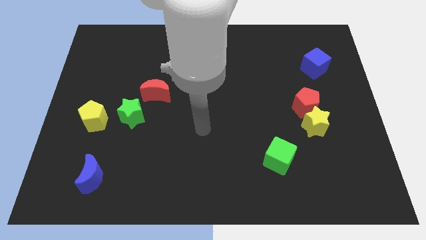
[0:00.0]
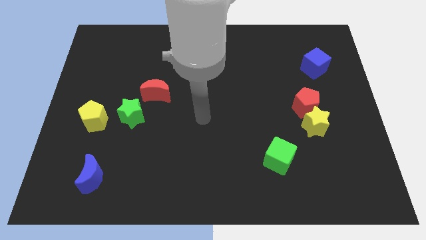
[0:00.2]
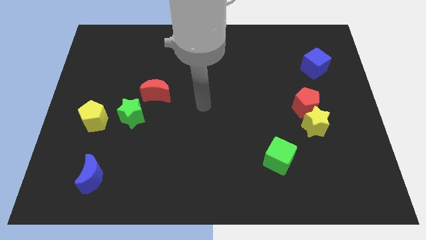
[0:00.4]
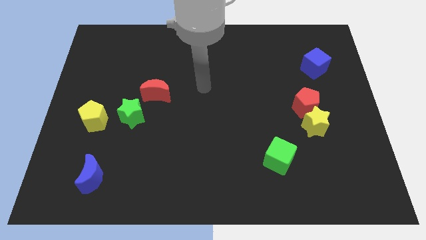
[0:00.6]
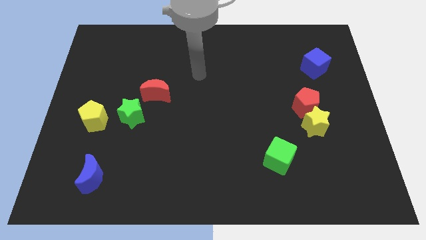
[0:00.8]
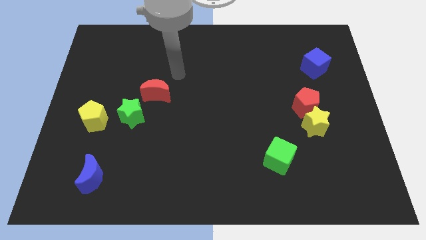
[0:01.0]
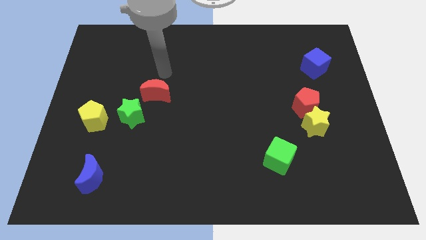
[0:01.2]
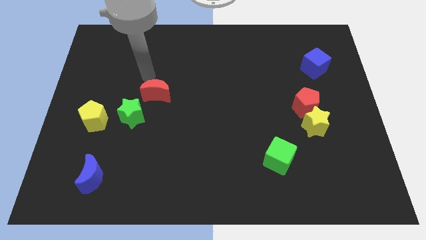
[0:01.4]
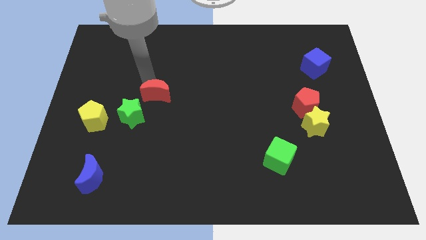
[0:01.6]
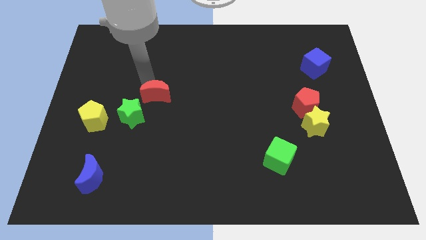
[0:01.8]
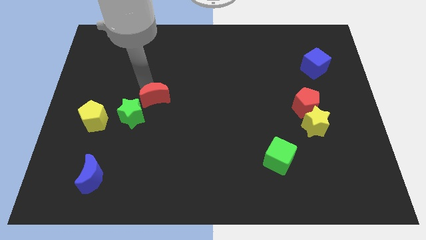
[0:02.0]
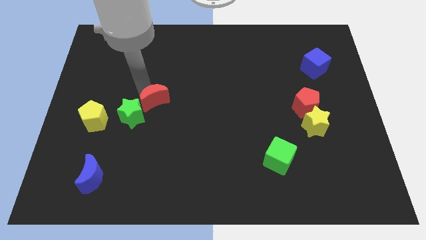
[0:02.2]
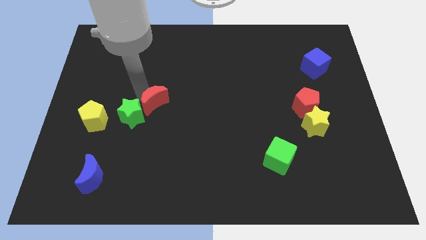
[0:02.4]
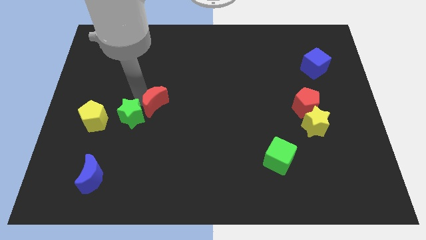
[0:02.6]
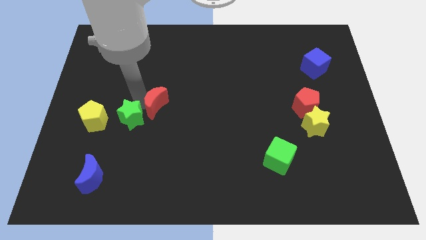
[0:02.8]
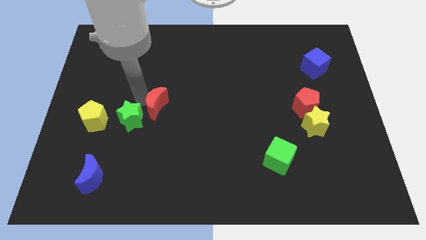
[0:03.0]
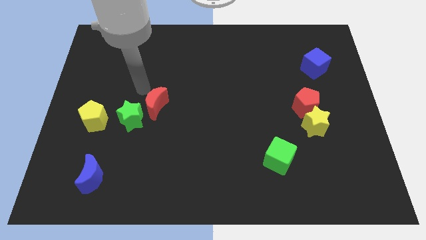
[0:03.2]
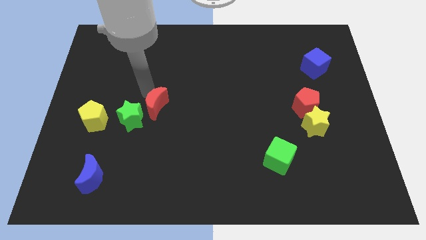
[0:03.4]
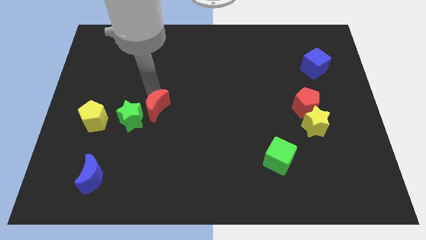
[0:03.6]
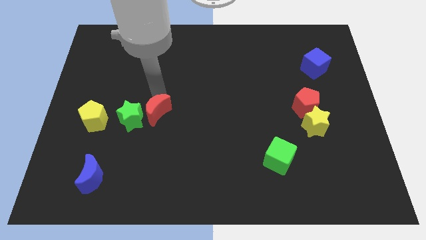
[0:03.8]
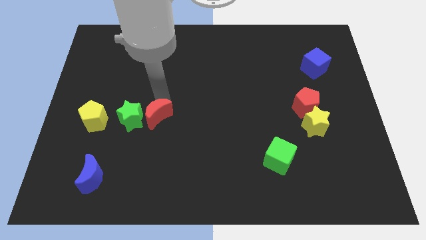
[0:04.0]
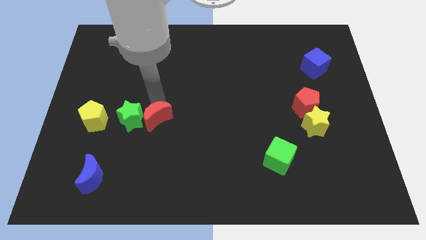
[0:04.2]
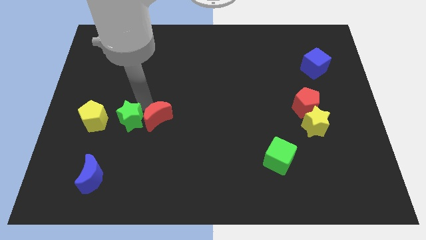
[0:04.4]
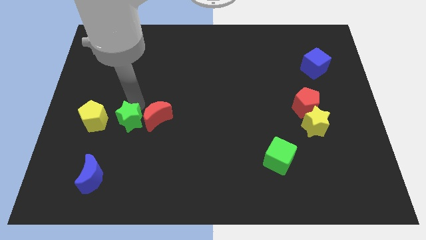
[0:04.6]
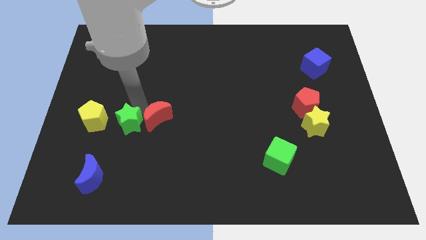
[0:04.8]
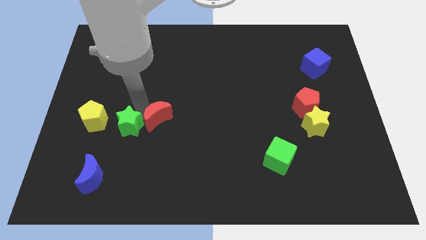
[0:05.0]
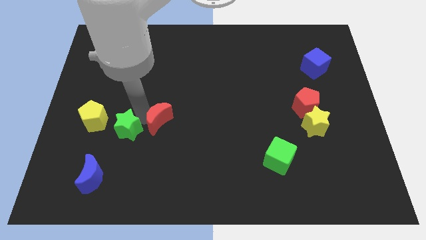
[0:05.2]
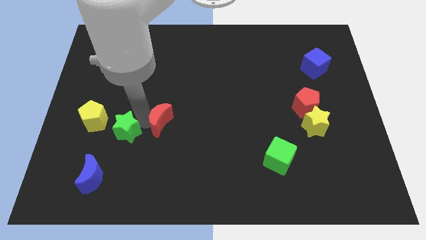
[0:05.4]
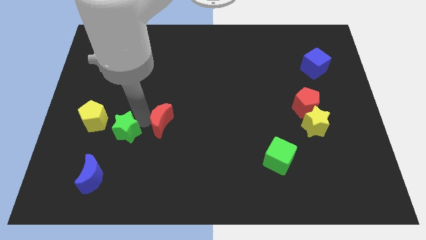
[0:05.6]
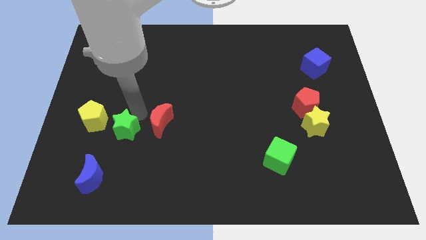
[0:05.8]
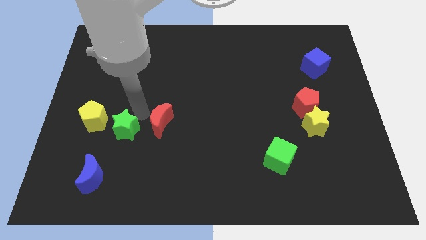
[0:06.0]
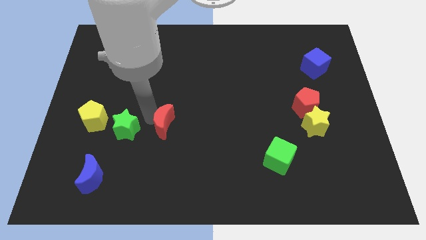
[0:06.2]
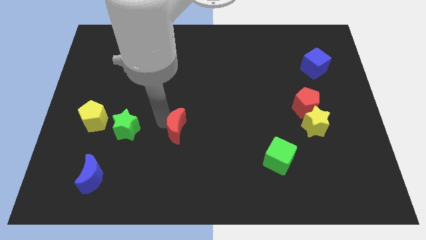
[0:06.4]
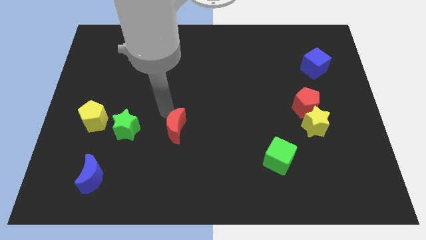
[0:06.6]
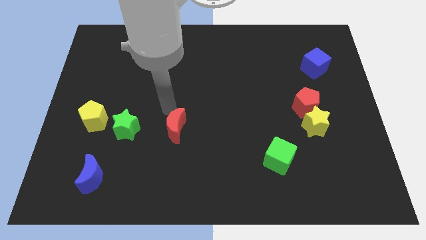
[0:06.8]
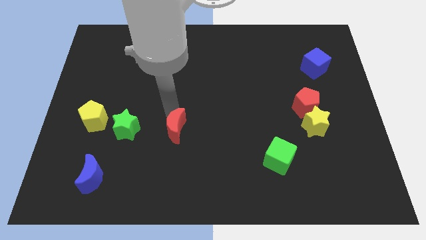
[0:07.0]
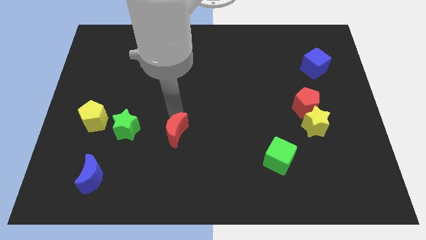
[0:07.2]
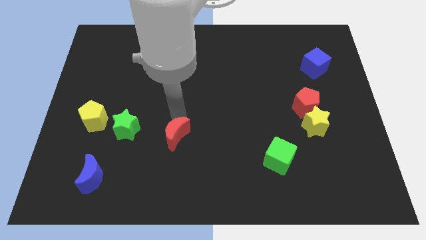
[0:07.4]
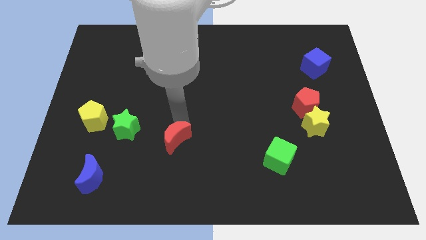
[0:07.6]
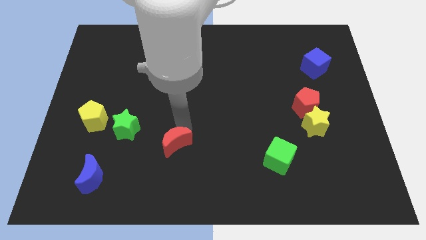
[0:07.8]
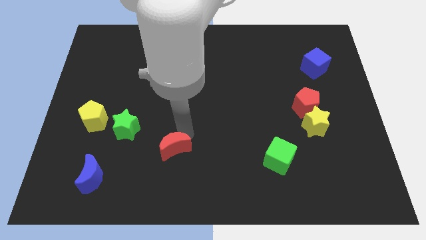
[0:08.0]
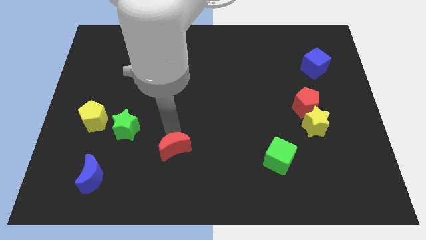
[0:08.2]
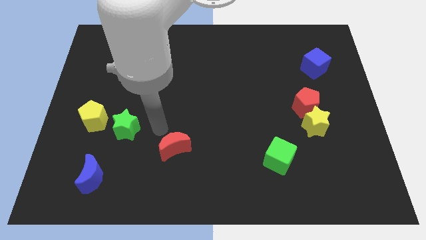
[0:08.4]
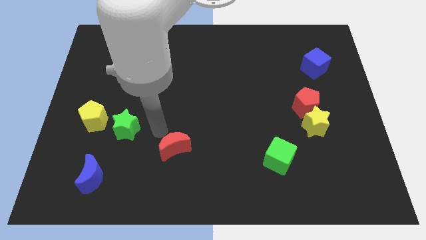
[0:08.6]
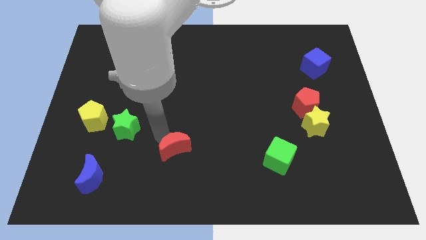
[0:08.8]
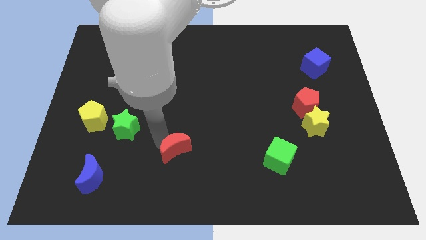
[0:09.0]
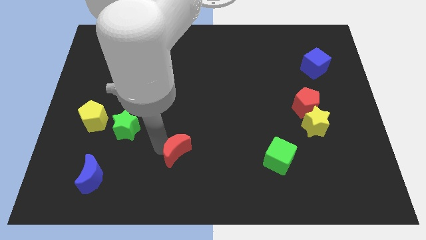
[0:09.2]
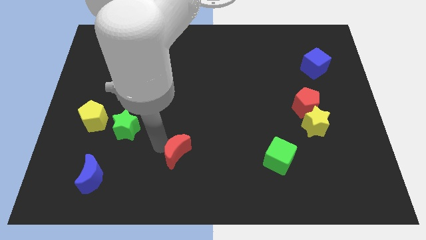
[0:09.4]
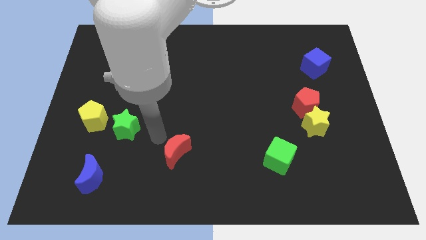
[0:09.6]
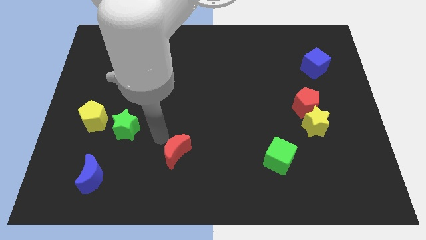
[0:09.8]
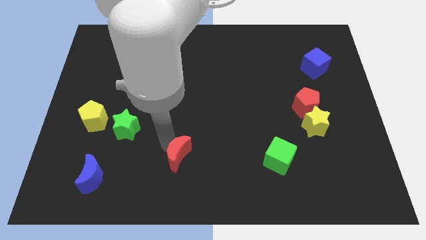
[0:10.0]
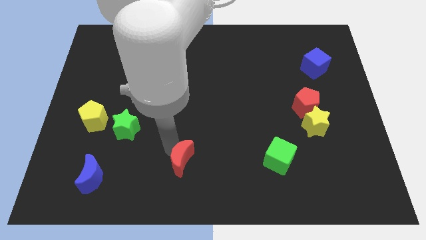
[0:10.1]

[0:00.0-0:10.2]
slide the red moon to the bottom
